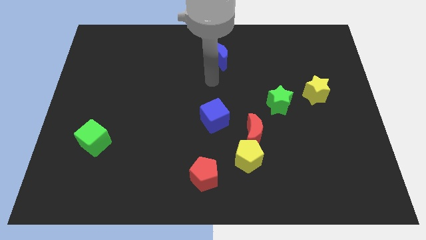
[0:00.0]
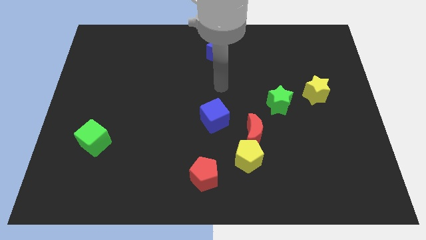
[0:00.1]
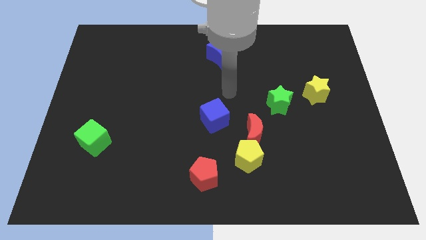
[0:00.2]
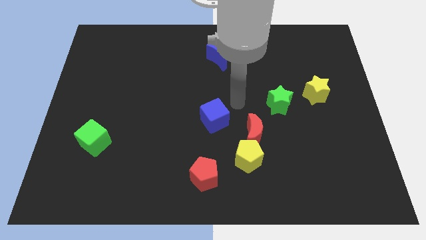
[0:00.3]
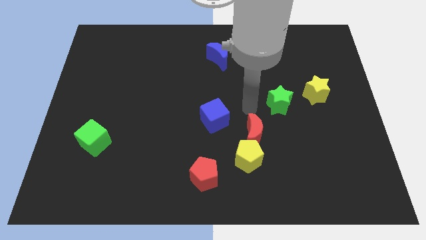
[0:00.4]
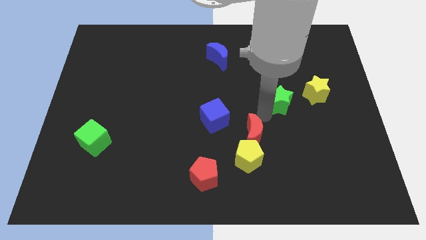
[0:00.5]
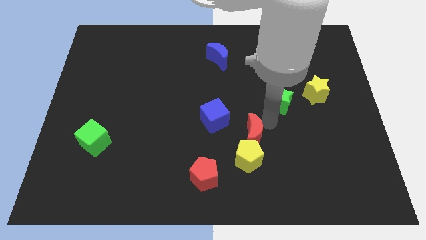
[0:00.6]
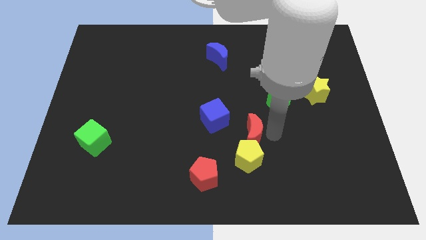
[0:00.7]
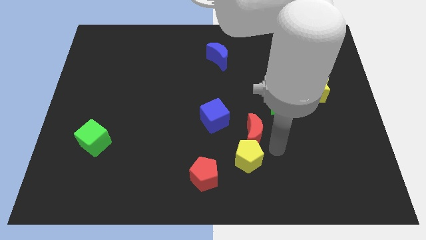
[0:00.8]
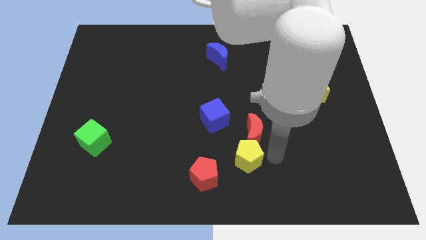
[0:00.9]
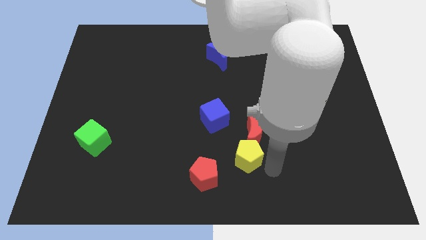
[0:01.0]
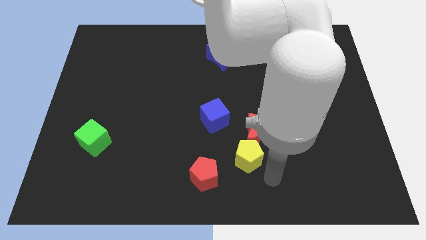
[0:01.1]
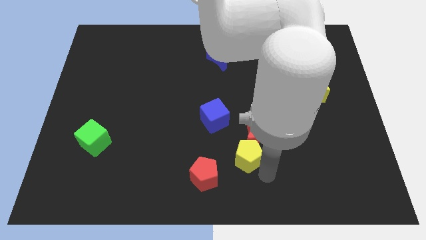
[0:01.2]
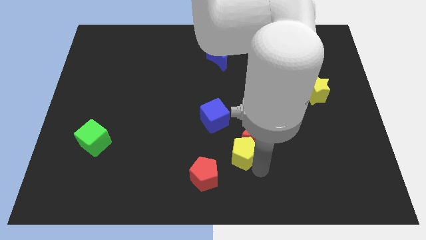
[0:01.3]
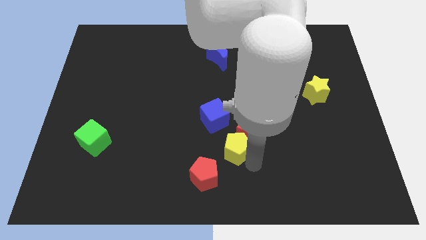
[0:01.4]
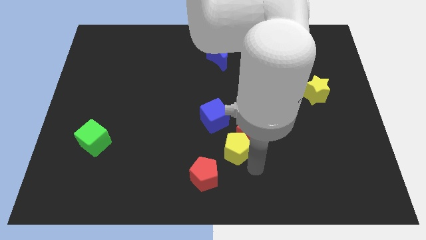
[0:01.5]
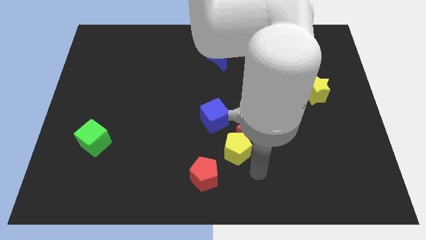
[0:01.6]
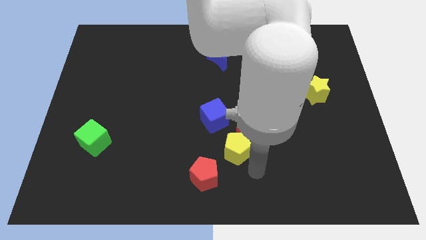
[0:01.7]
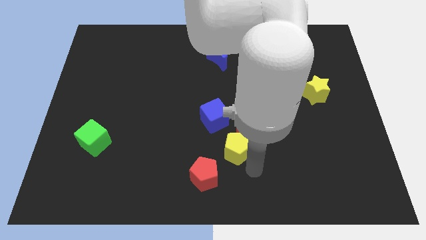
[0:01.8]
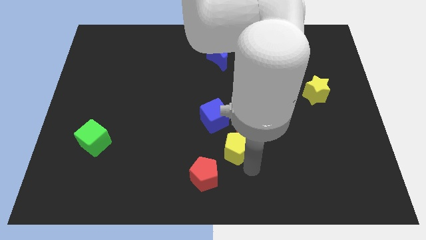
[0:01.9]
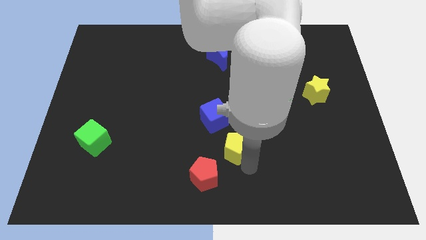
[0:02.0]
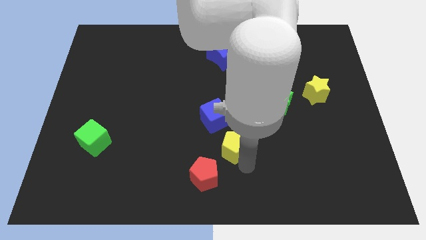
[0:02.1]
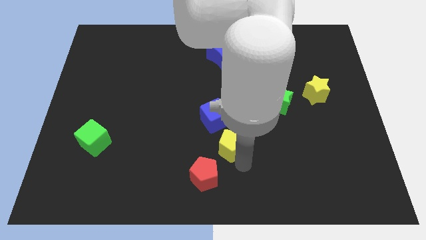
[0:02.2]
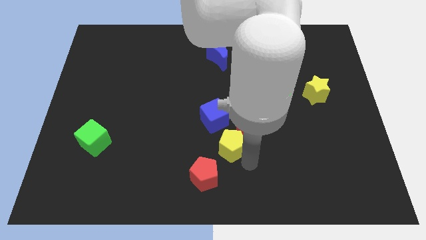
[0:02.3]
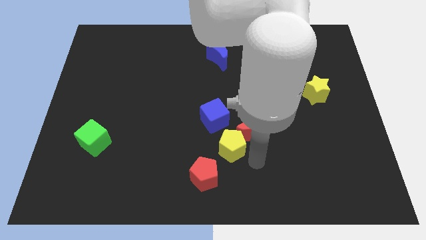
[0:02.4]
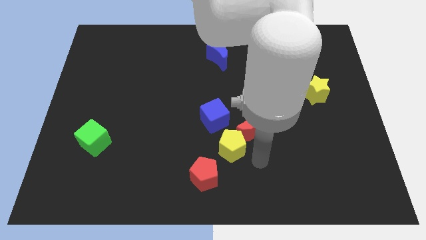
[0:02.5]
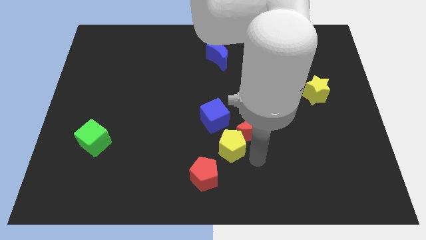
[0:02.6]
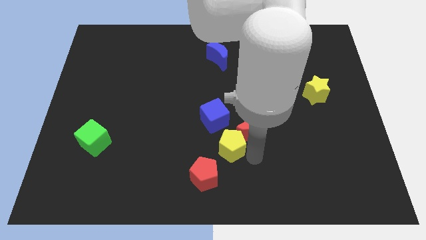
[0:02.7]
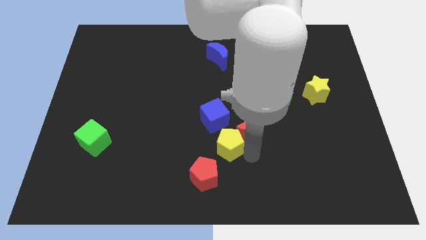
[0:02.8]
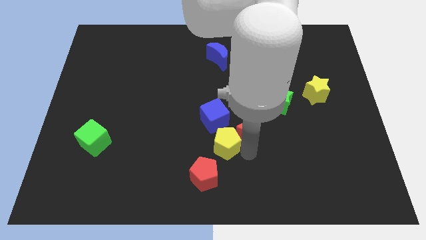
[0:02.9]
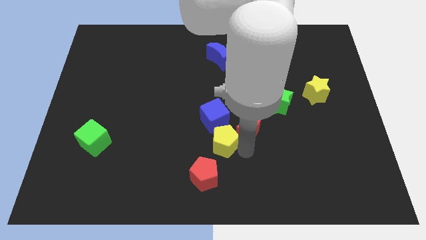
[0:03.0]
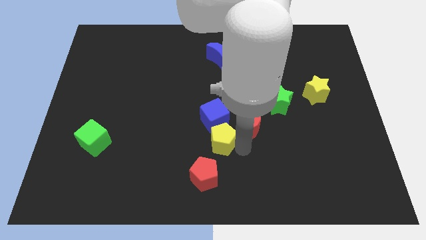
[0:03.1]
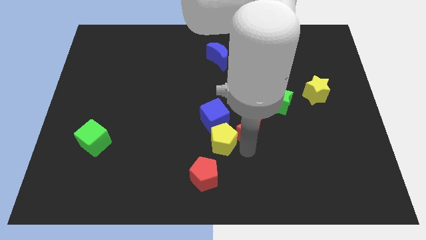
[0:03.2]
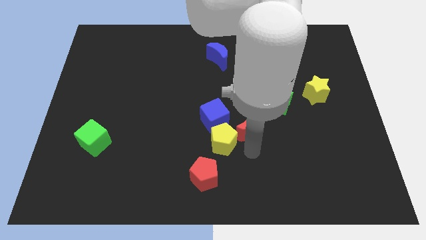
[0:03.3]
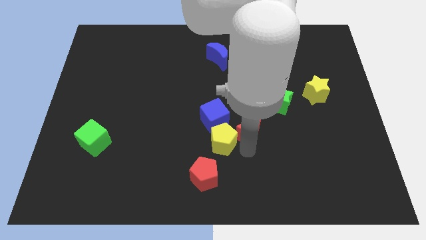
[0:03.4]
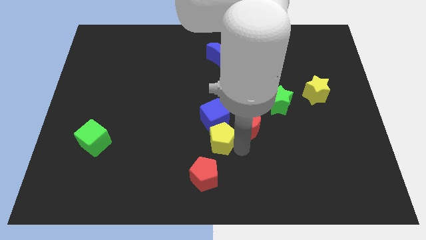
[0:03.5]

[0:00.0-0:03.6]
slide the yellow pentagon slightly diagonally upwards and to the left

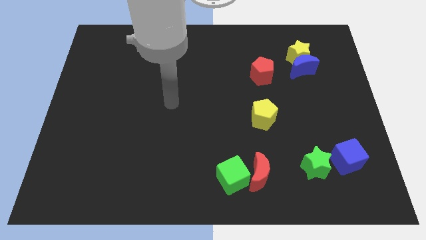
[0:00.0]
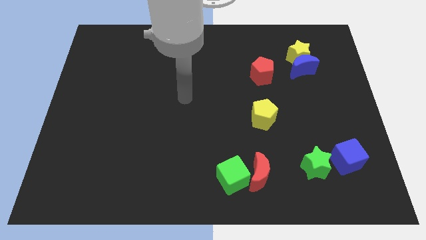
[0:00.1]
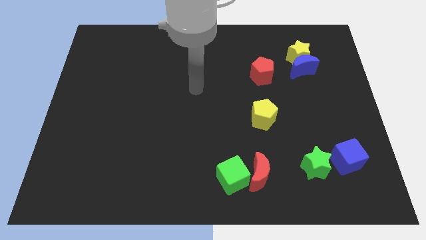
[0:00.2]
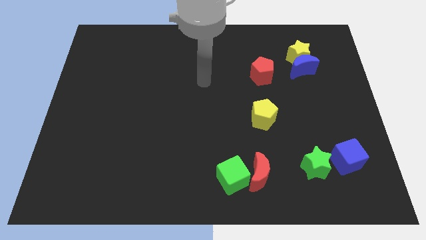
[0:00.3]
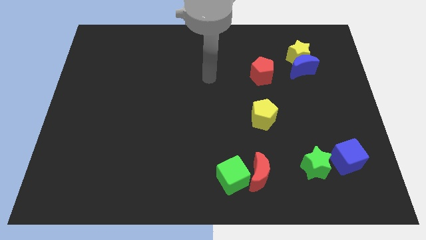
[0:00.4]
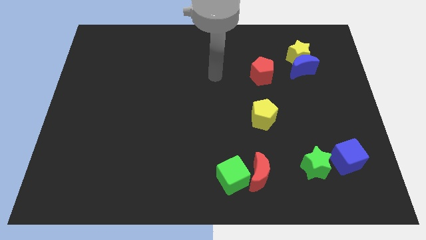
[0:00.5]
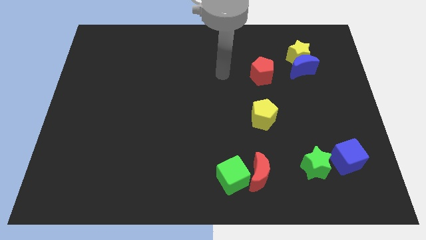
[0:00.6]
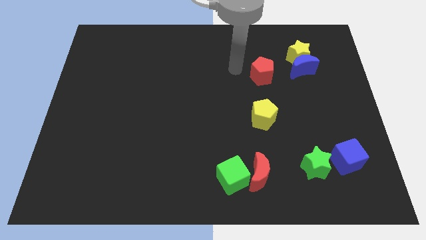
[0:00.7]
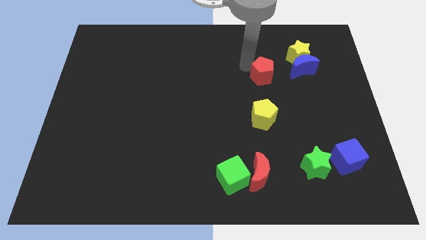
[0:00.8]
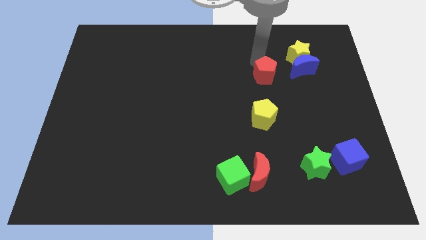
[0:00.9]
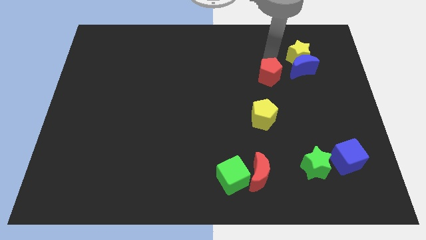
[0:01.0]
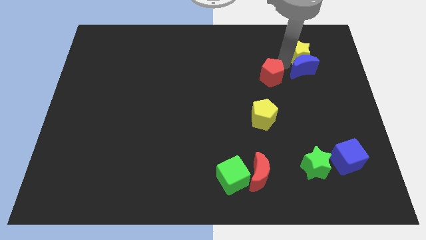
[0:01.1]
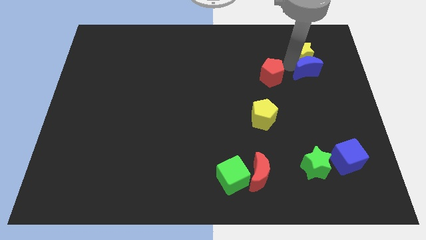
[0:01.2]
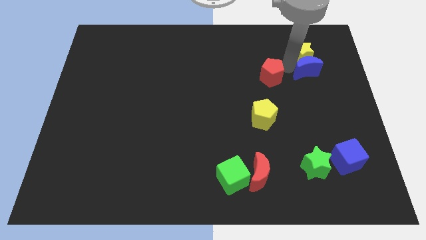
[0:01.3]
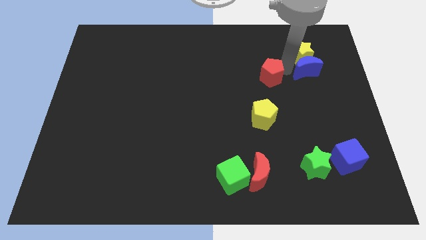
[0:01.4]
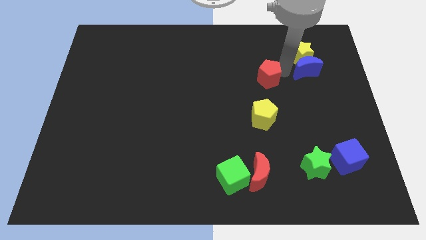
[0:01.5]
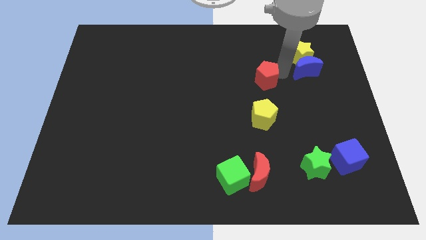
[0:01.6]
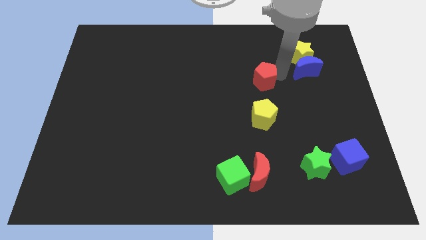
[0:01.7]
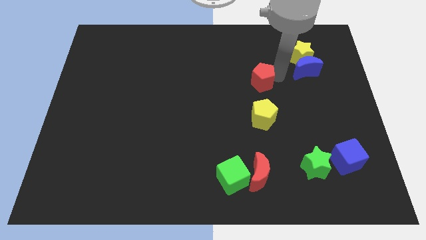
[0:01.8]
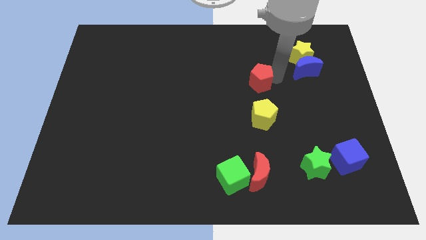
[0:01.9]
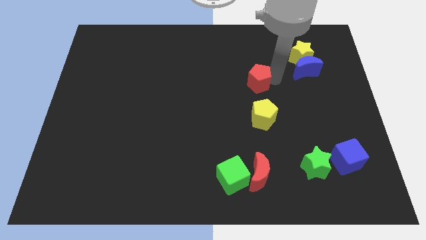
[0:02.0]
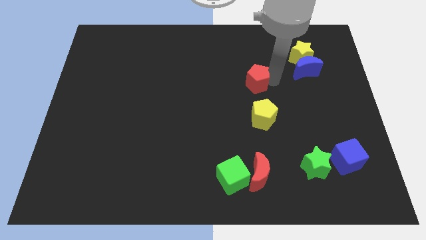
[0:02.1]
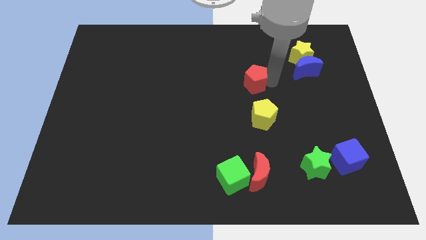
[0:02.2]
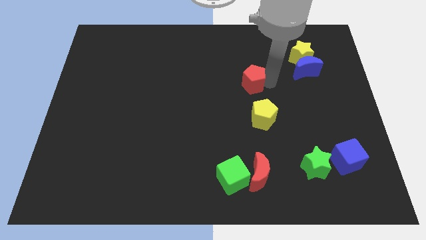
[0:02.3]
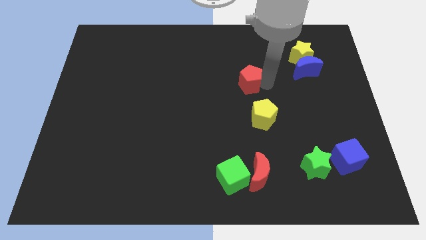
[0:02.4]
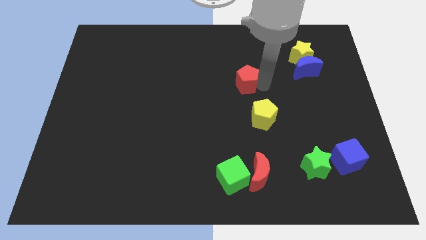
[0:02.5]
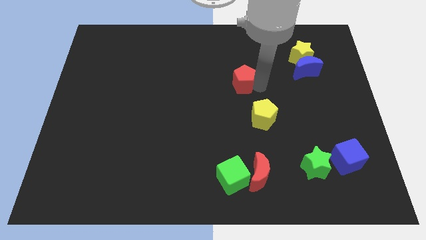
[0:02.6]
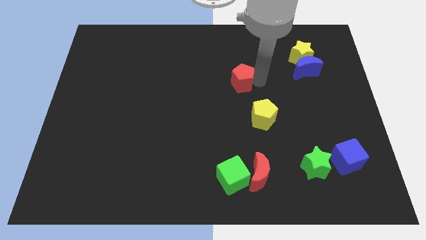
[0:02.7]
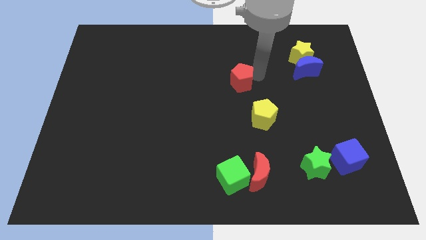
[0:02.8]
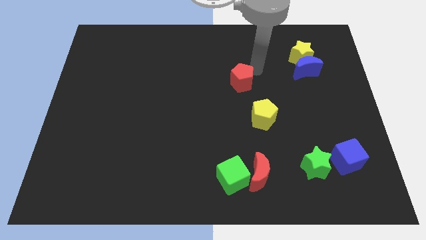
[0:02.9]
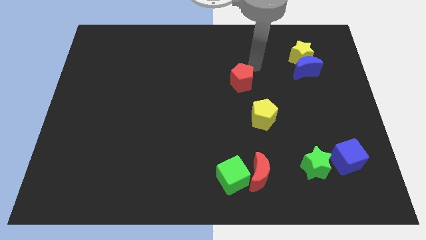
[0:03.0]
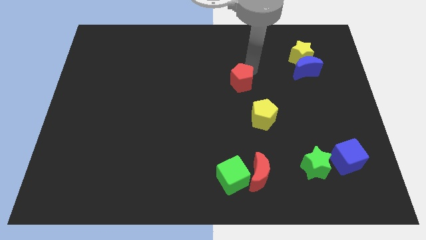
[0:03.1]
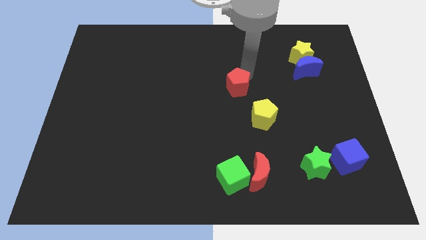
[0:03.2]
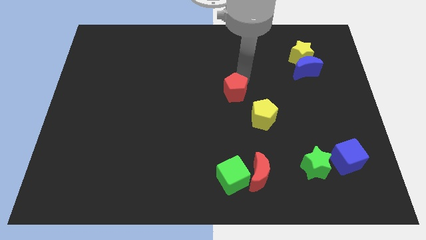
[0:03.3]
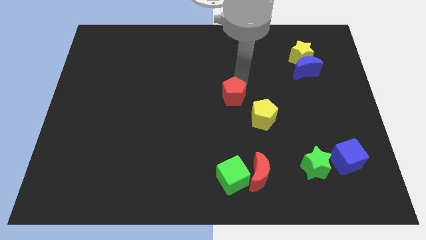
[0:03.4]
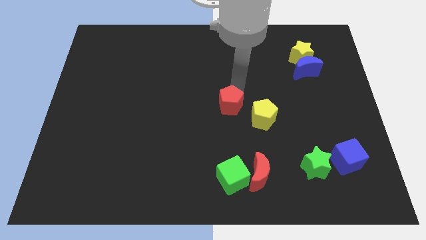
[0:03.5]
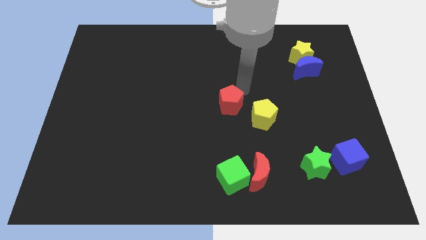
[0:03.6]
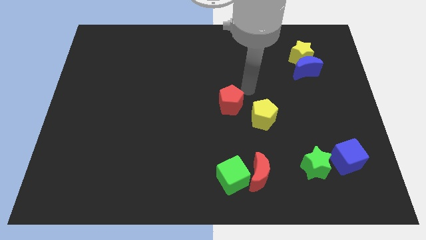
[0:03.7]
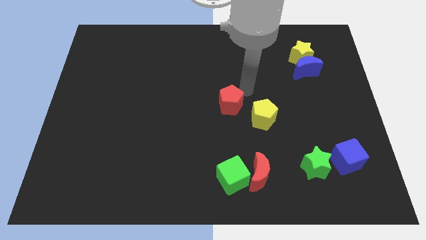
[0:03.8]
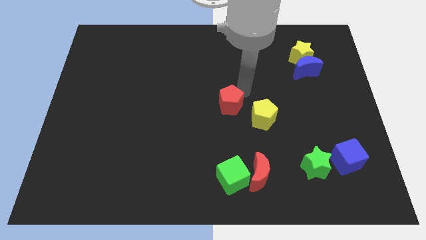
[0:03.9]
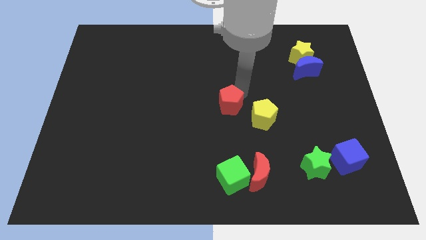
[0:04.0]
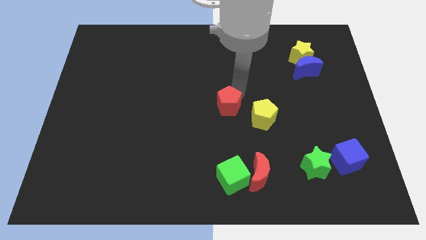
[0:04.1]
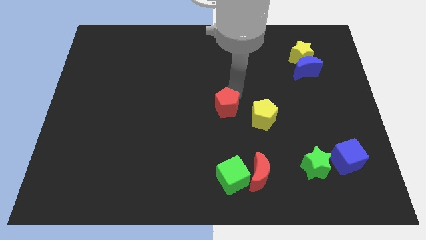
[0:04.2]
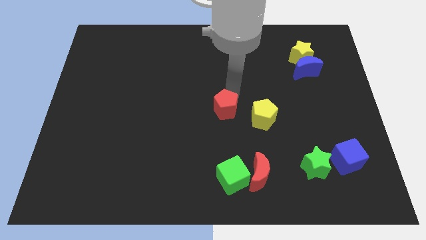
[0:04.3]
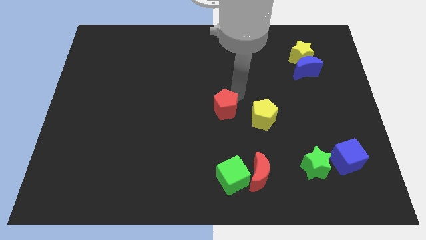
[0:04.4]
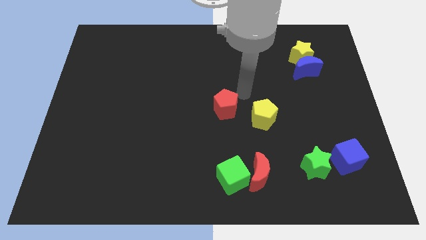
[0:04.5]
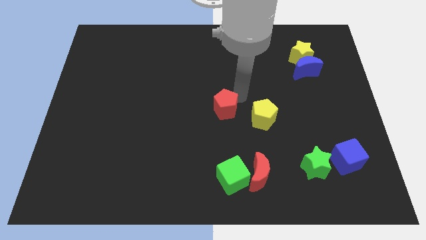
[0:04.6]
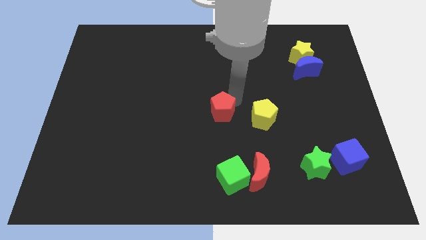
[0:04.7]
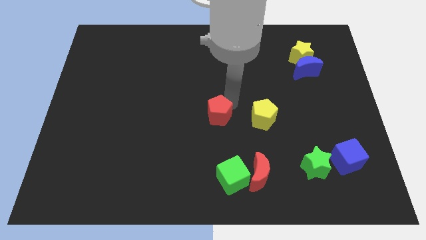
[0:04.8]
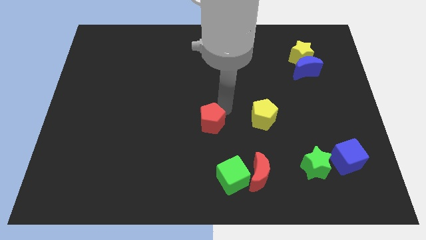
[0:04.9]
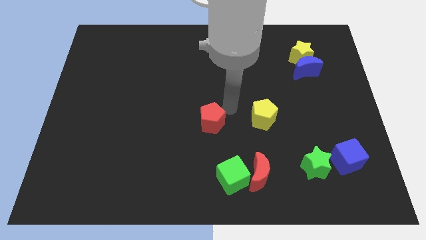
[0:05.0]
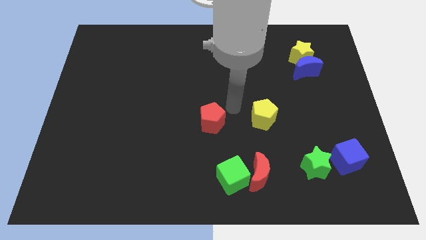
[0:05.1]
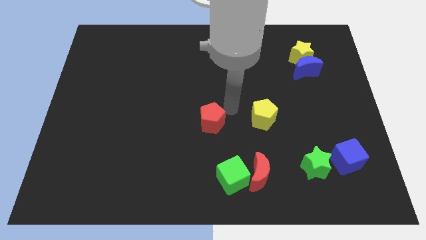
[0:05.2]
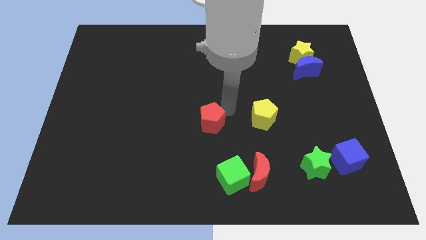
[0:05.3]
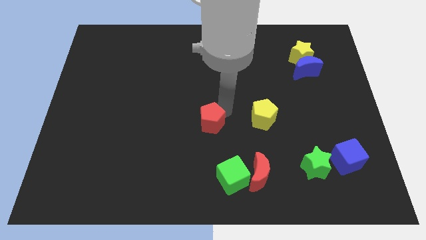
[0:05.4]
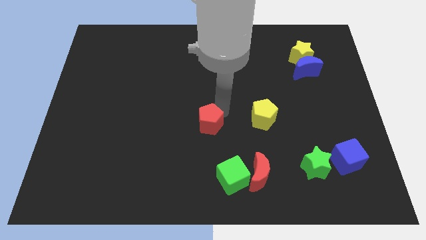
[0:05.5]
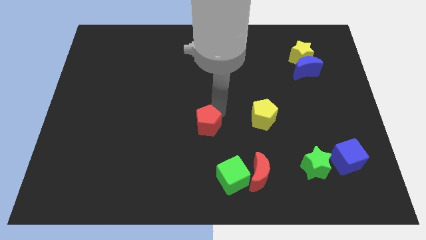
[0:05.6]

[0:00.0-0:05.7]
move the red pentagon down and then to the left
